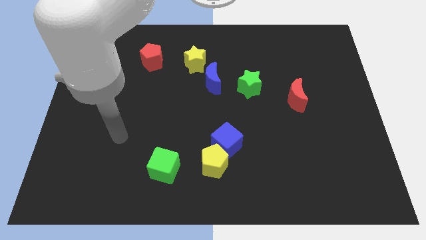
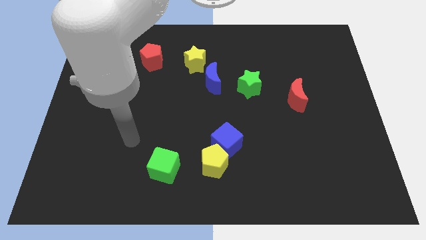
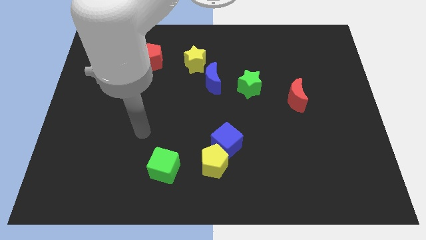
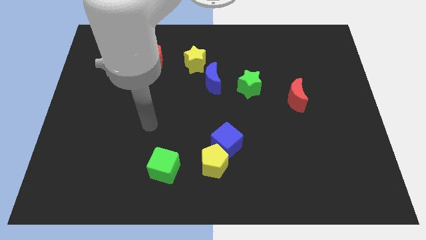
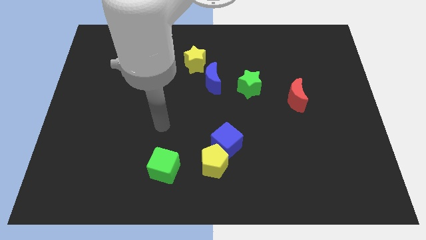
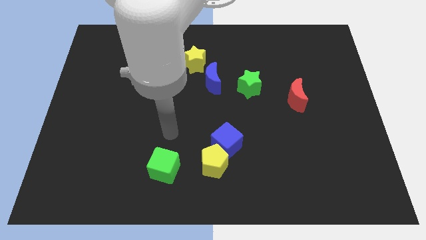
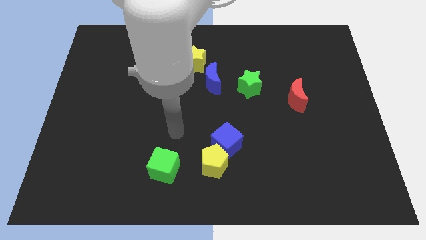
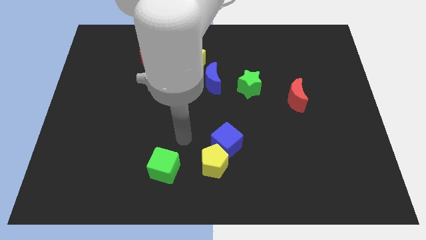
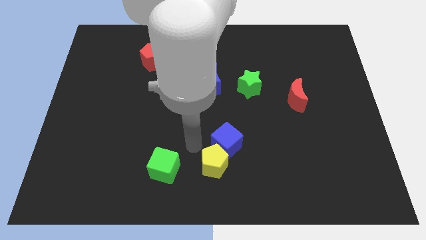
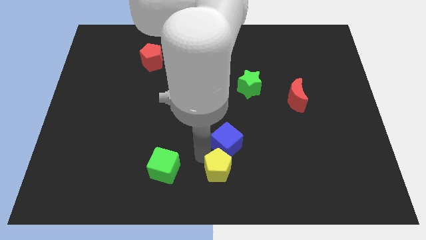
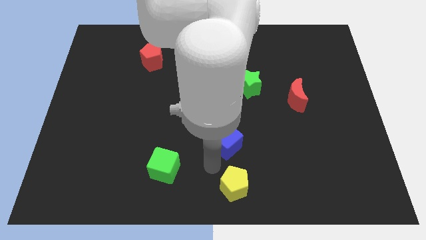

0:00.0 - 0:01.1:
separate the blue cube from the yellow pentagon

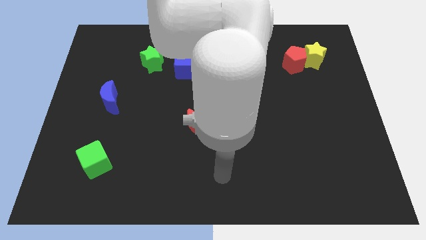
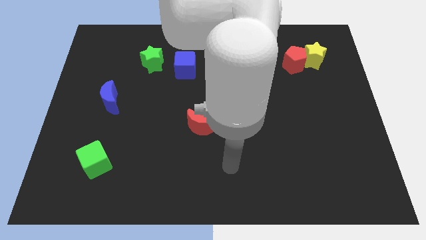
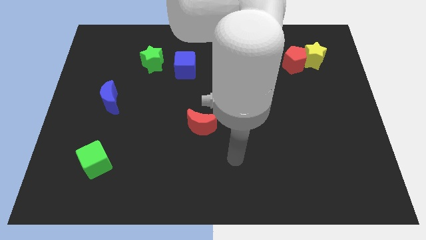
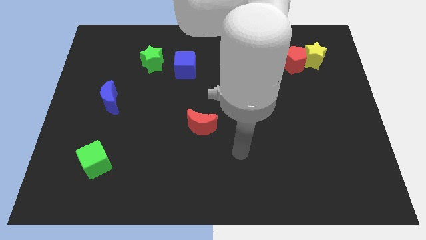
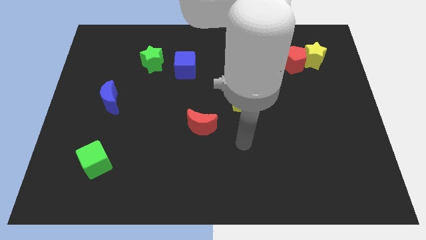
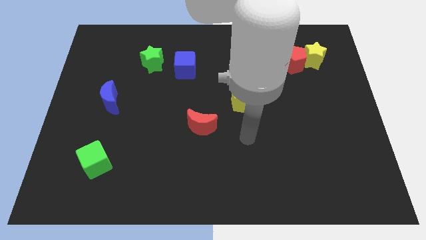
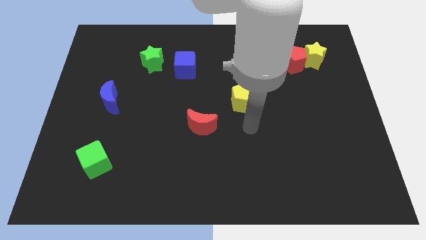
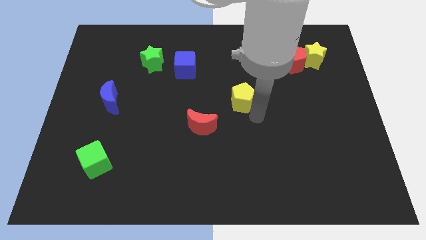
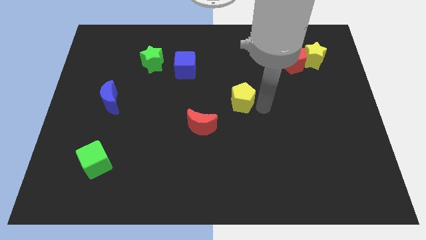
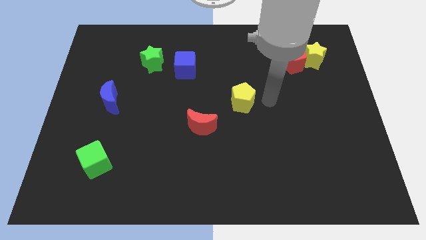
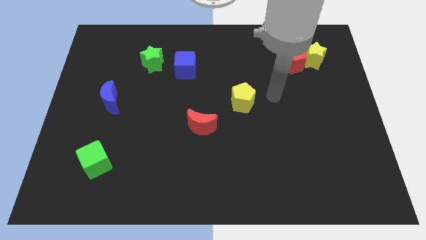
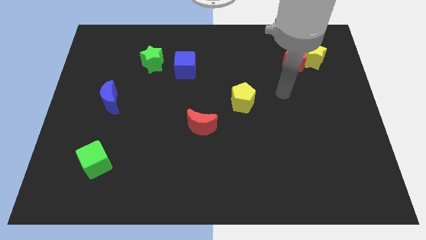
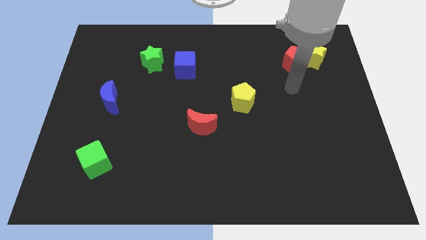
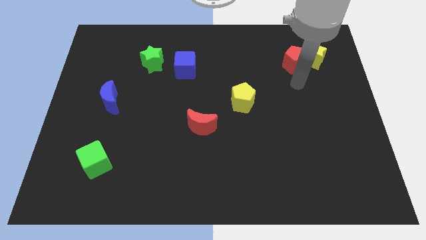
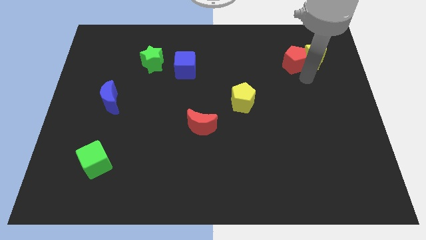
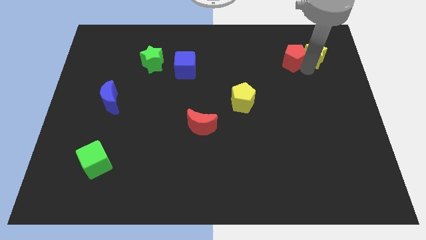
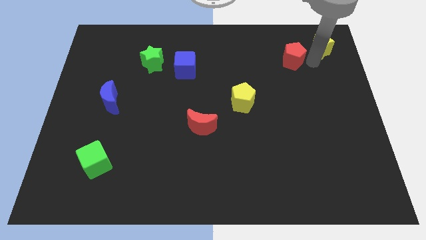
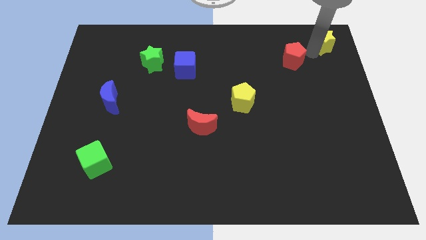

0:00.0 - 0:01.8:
pull the red pentagon apart from the yellow star

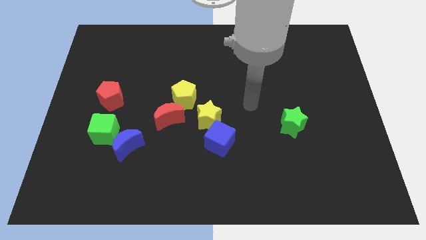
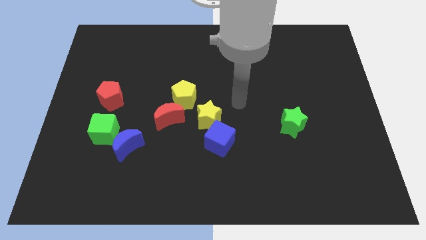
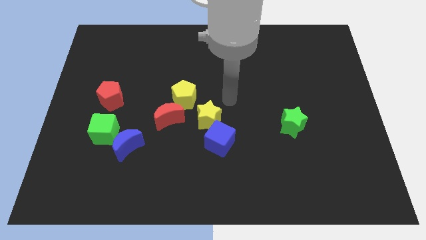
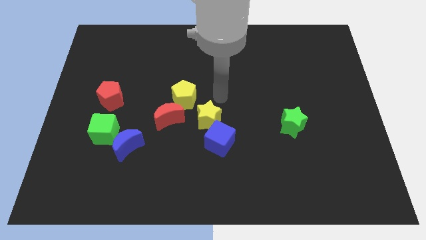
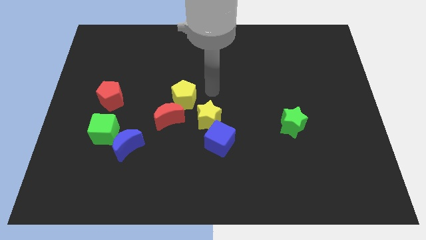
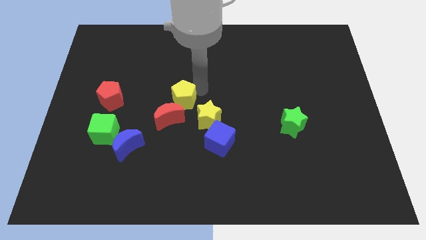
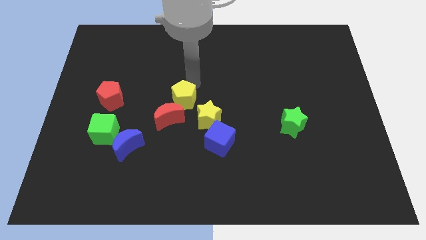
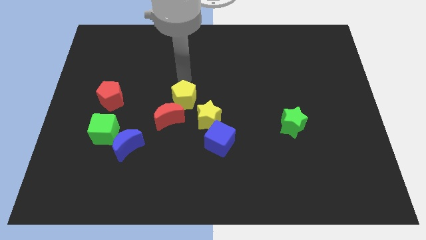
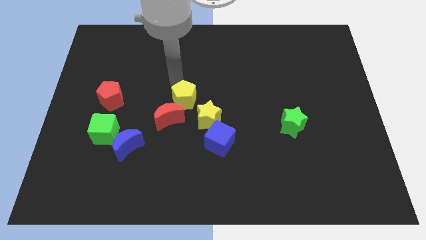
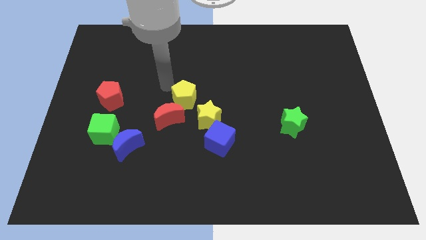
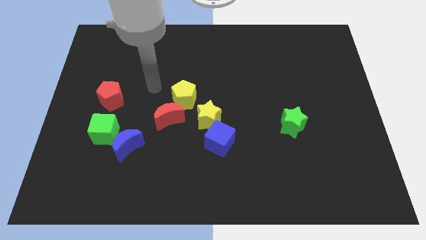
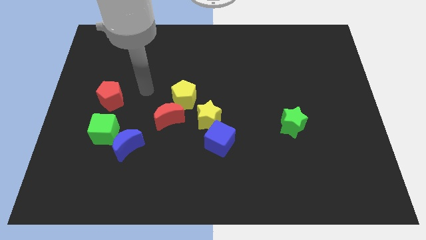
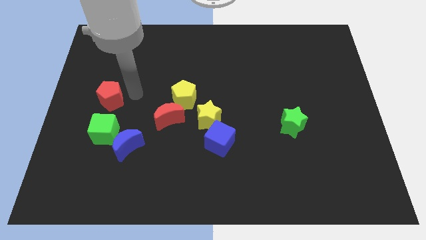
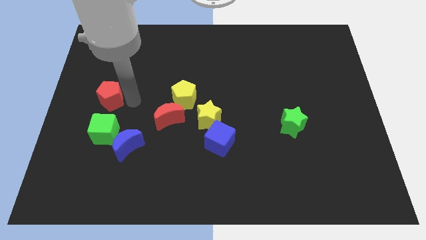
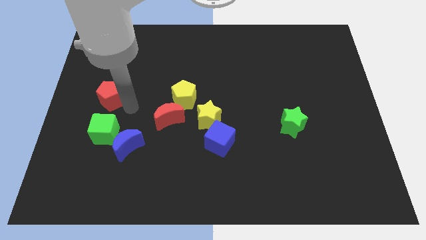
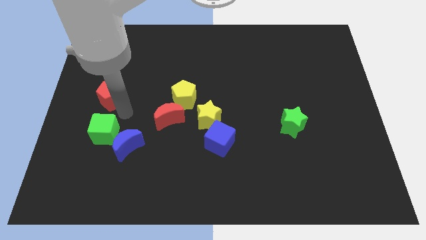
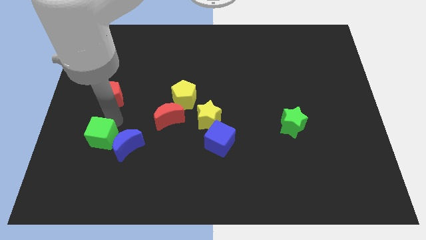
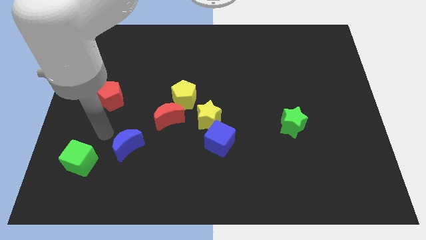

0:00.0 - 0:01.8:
pull the blue moon apart from the green cube

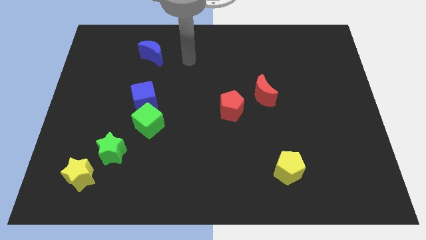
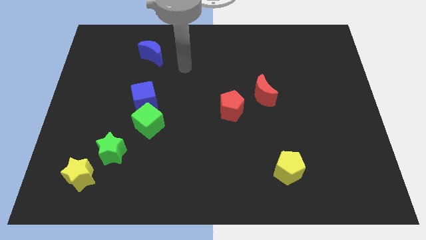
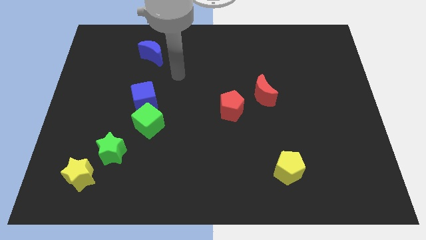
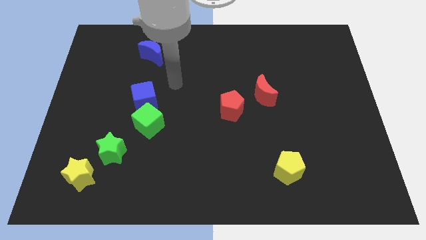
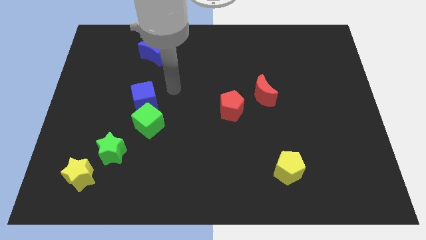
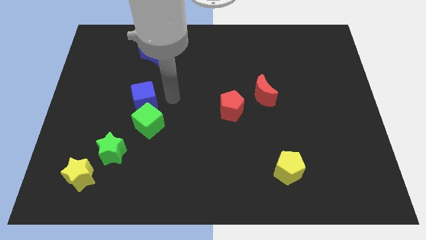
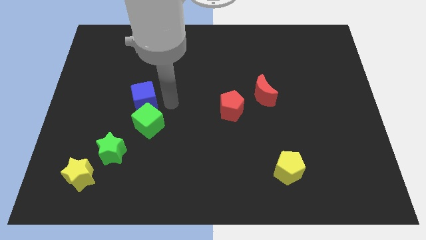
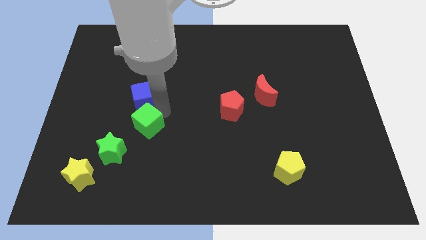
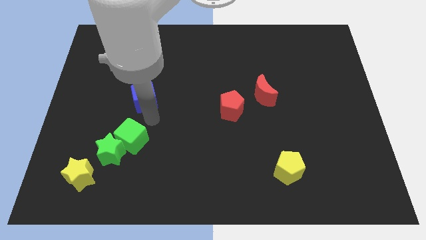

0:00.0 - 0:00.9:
separate the blue cube from the green cube

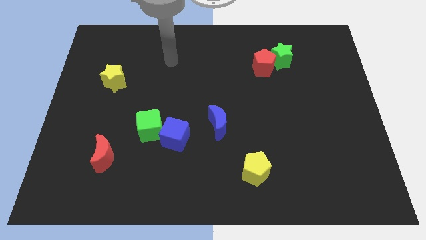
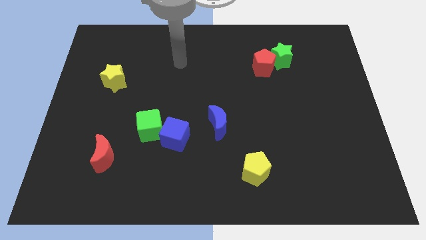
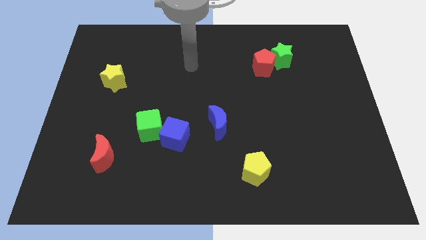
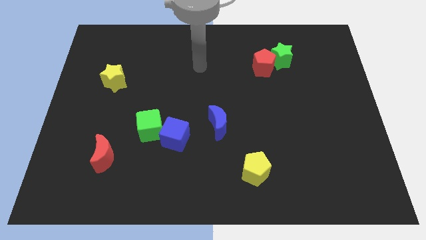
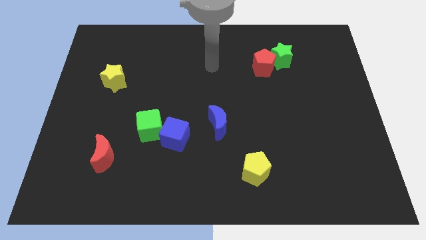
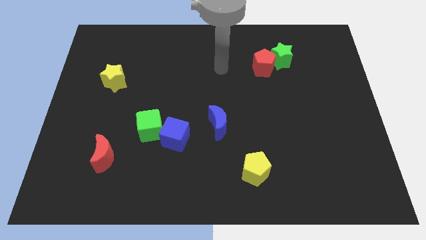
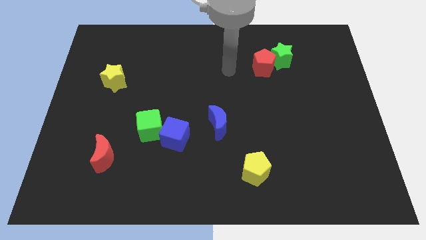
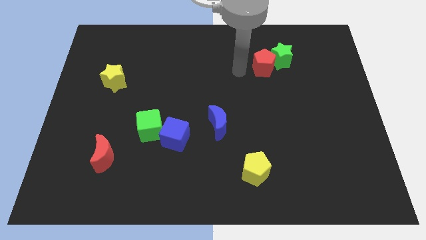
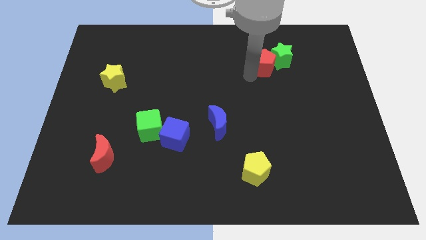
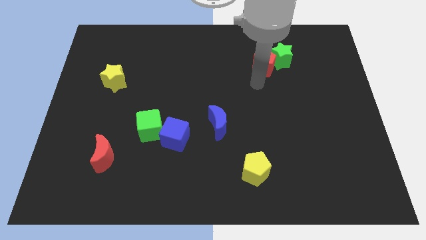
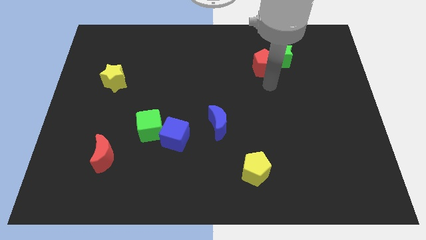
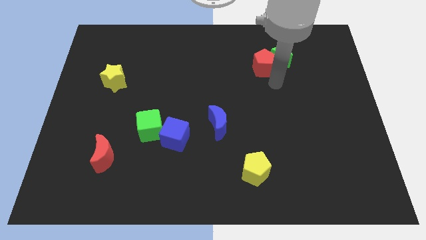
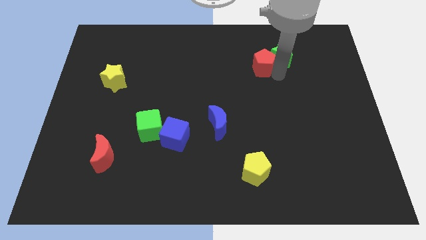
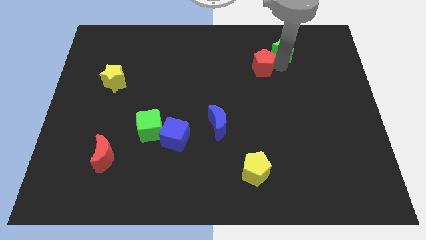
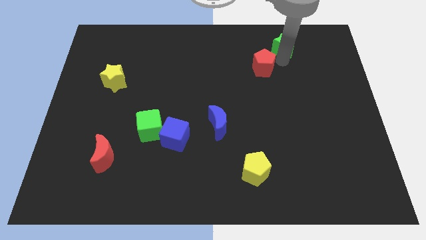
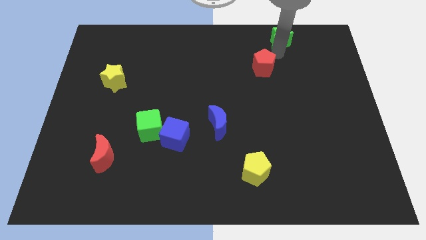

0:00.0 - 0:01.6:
pull the red pentagon apart from the green star

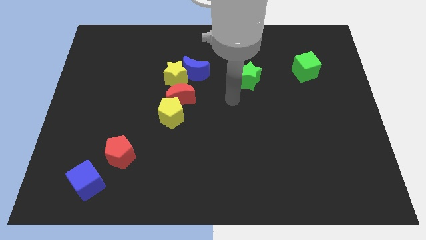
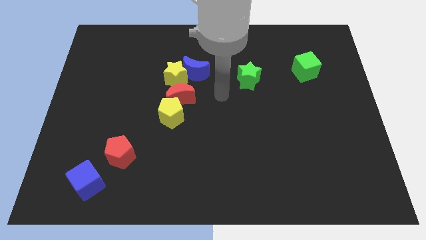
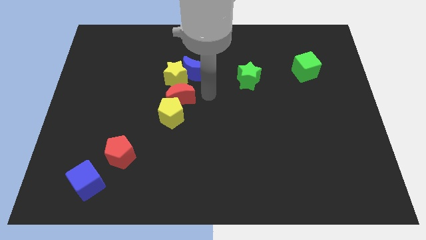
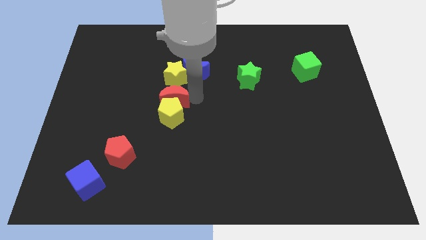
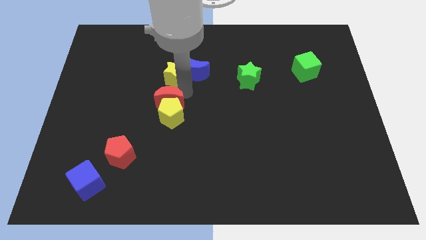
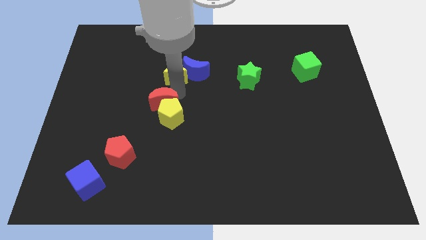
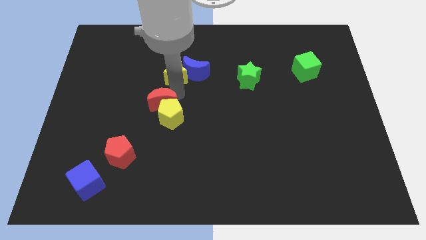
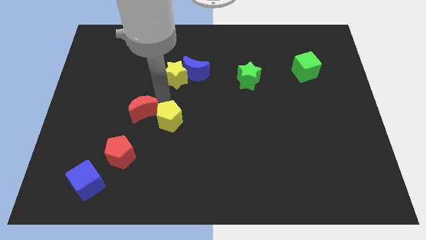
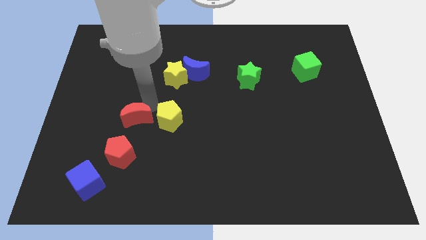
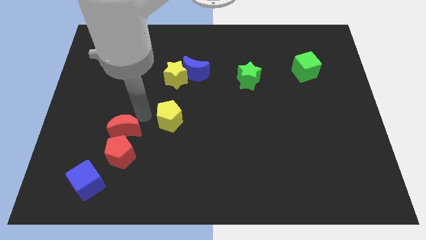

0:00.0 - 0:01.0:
pull the yellow pentagon apart from the red moon

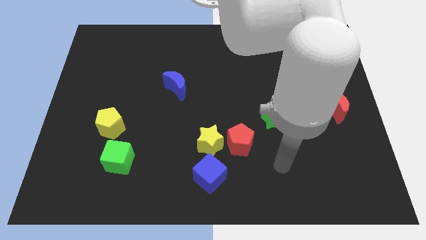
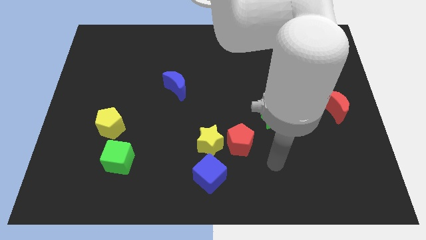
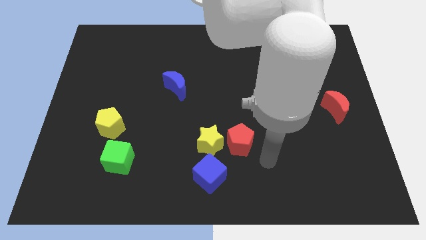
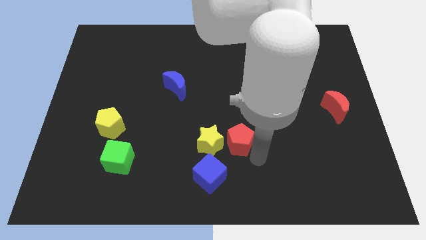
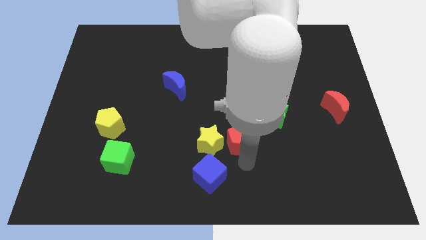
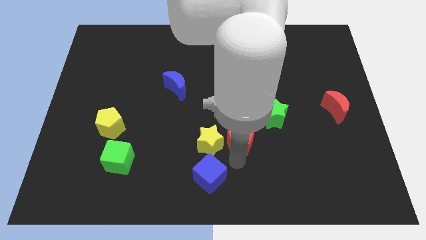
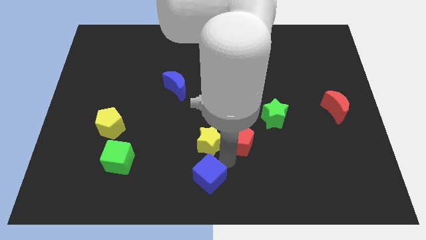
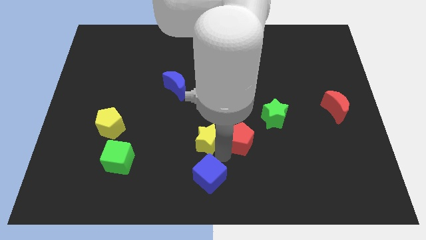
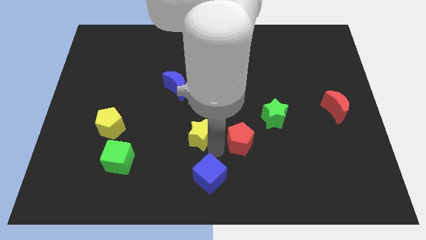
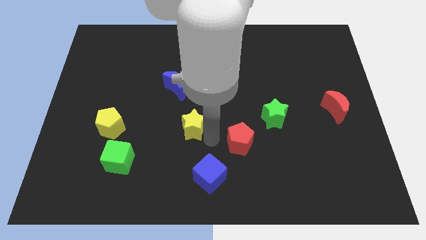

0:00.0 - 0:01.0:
separate the red pentagon from the yellow star

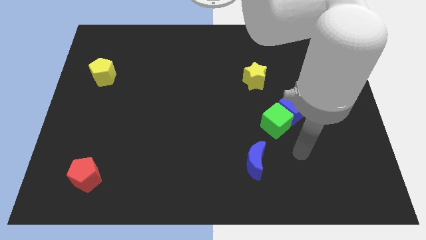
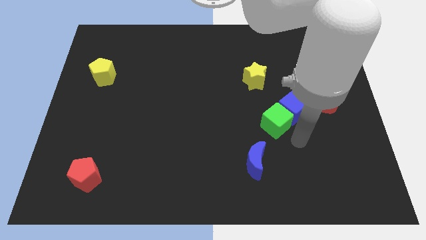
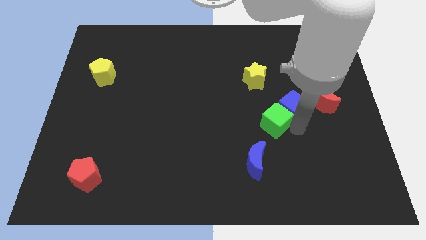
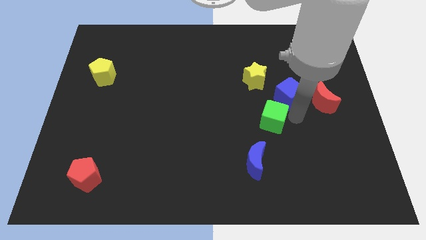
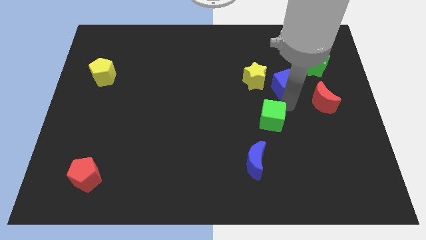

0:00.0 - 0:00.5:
move the green cube away from the blue cube
